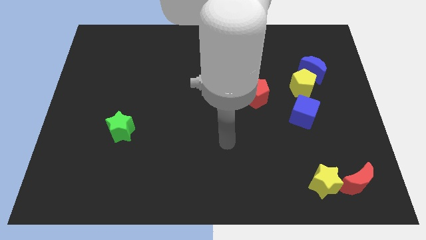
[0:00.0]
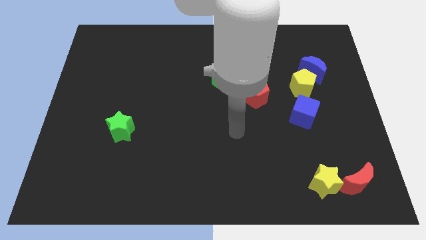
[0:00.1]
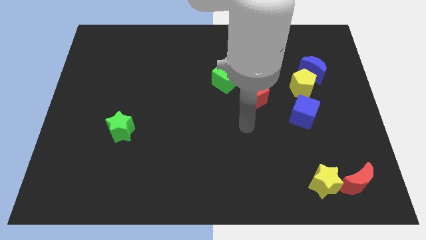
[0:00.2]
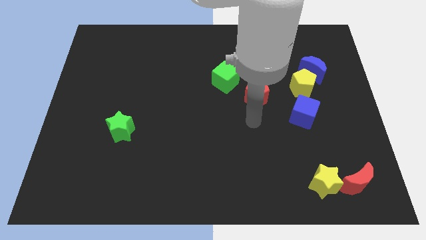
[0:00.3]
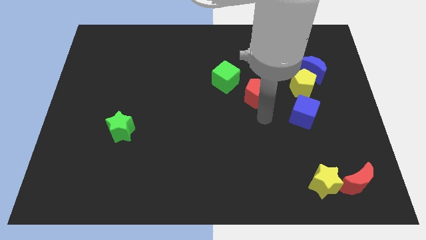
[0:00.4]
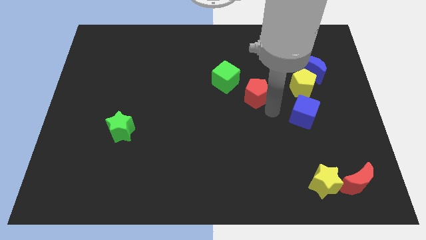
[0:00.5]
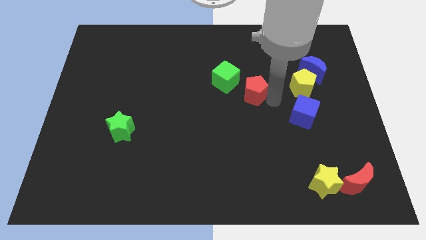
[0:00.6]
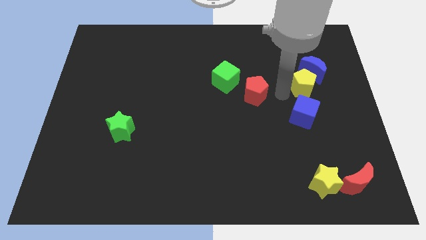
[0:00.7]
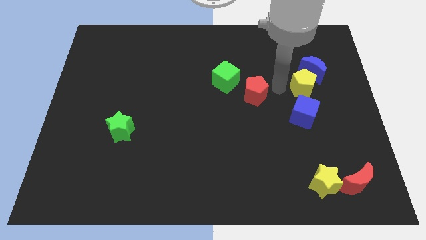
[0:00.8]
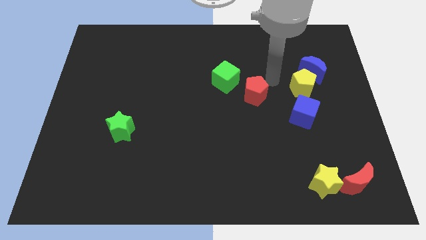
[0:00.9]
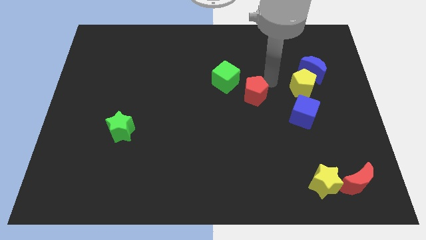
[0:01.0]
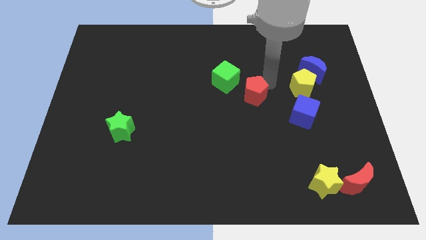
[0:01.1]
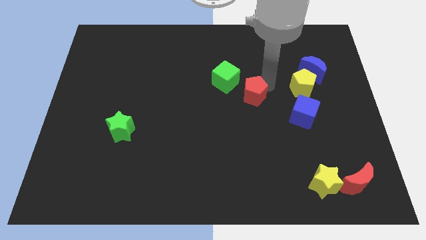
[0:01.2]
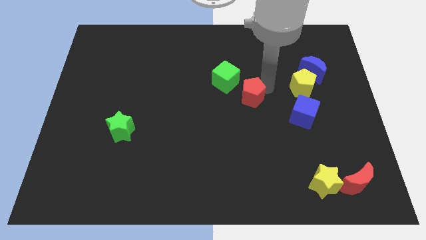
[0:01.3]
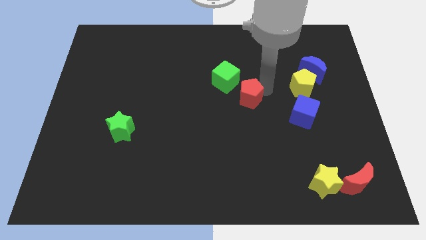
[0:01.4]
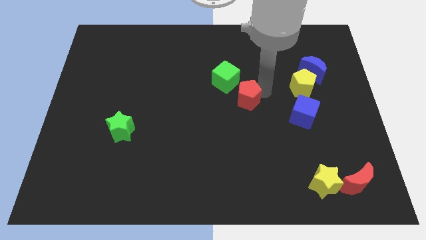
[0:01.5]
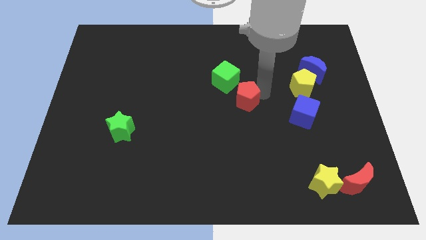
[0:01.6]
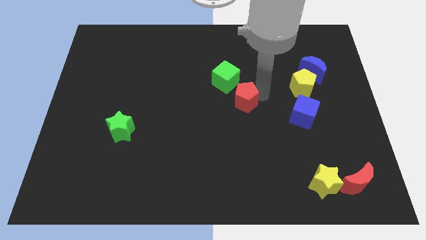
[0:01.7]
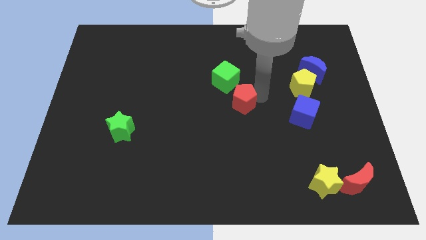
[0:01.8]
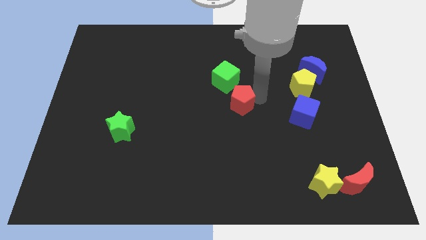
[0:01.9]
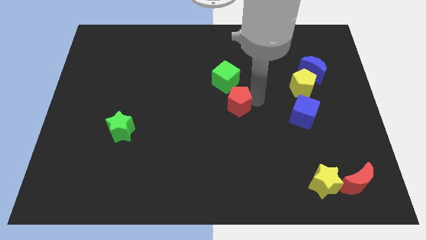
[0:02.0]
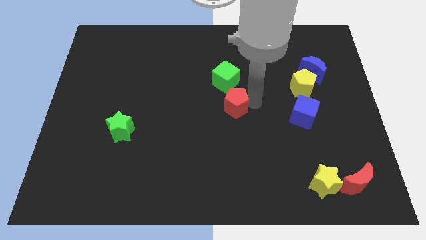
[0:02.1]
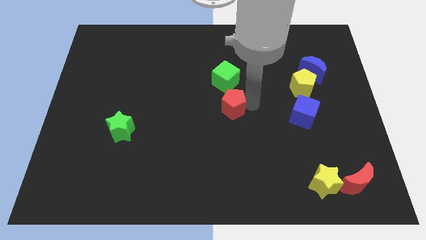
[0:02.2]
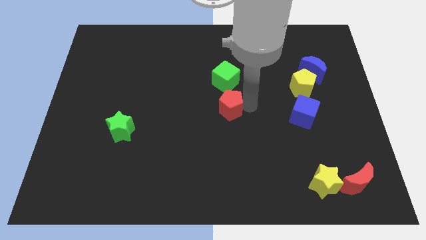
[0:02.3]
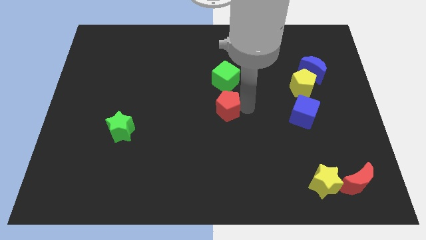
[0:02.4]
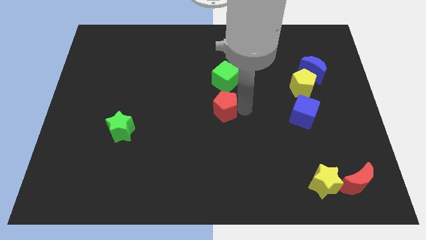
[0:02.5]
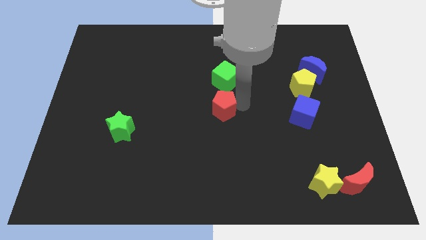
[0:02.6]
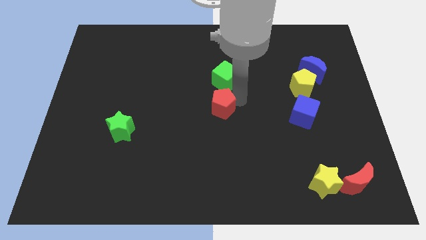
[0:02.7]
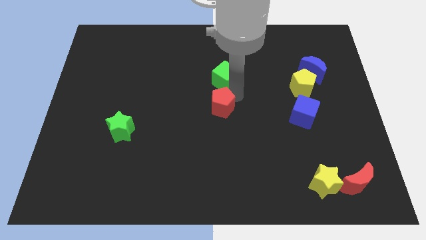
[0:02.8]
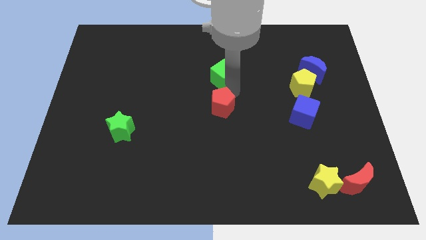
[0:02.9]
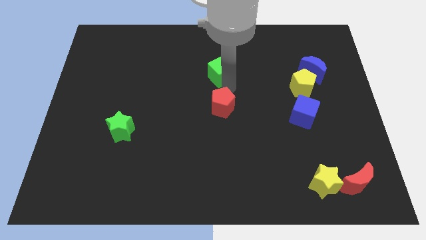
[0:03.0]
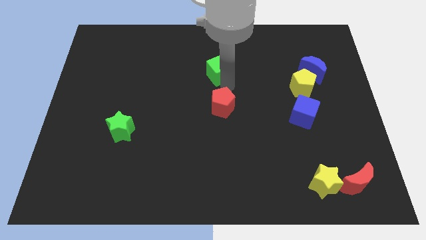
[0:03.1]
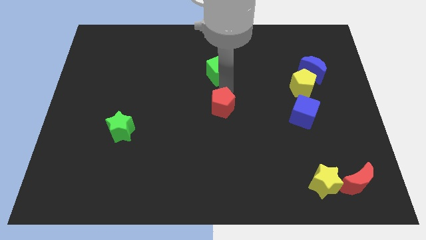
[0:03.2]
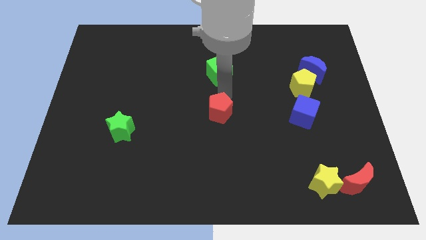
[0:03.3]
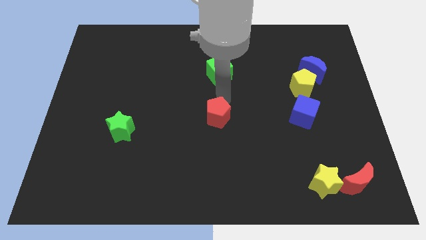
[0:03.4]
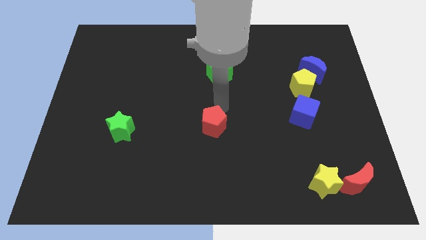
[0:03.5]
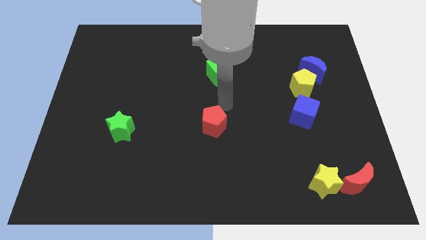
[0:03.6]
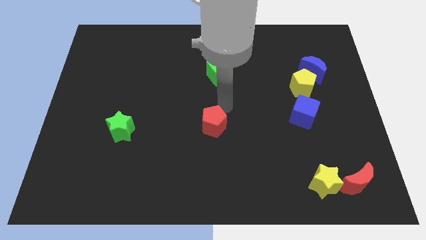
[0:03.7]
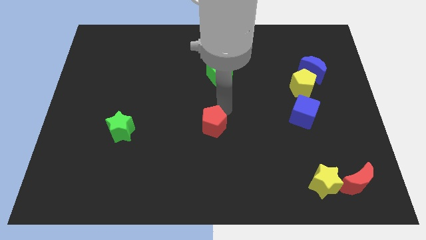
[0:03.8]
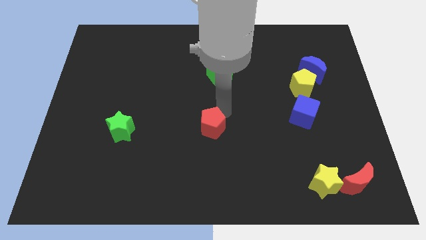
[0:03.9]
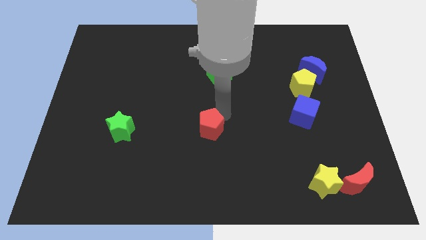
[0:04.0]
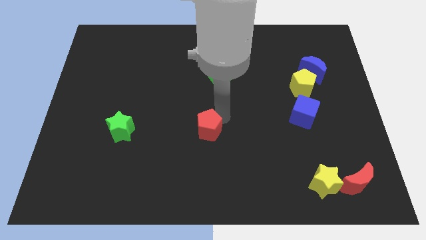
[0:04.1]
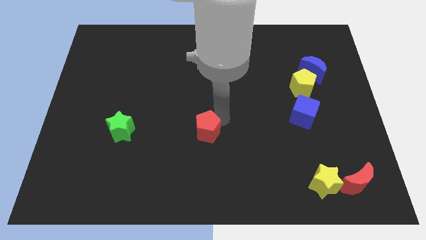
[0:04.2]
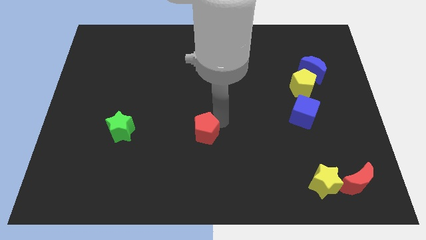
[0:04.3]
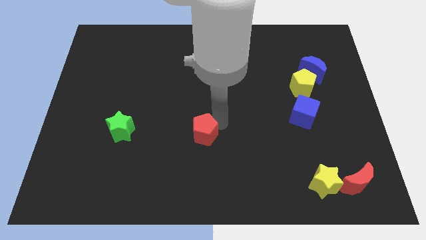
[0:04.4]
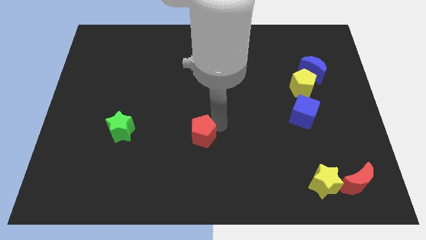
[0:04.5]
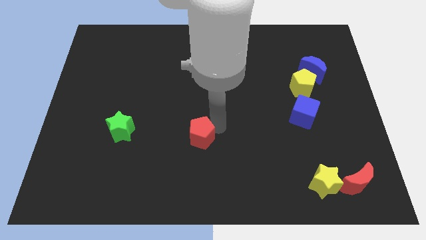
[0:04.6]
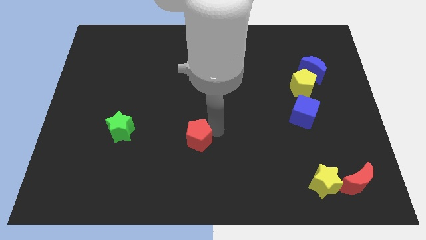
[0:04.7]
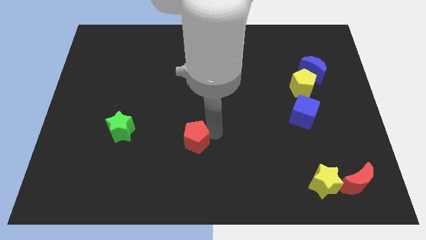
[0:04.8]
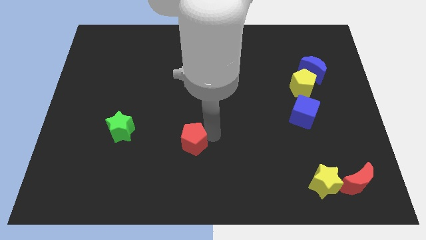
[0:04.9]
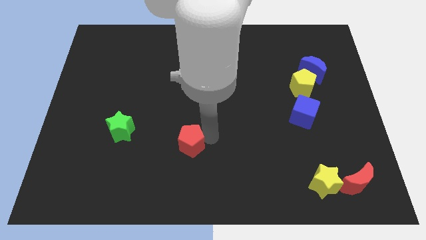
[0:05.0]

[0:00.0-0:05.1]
slide the red pentagon down and then to the left

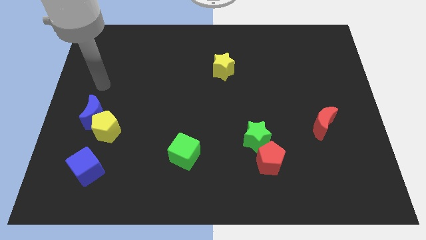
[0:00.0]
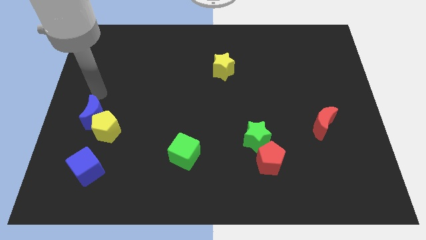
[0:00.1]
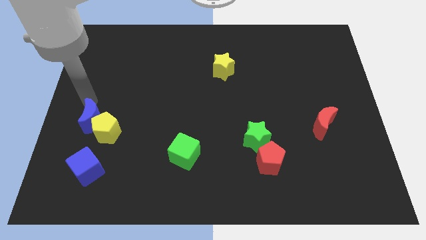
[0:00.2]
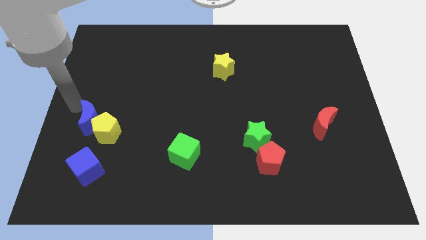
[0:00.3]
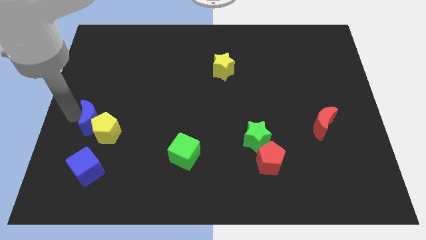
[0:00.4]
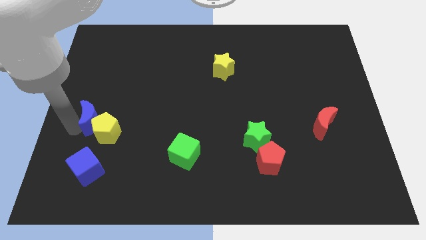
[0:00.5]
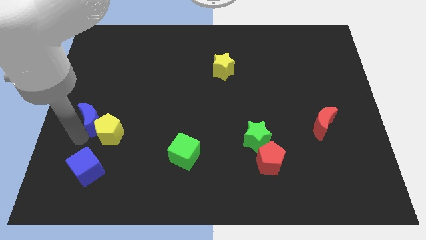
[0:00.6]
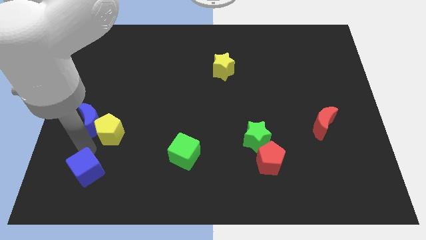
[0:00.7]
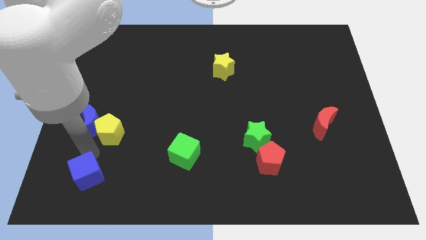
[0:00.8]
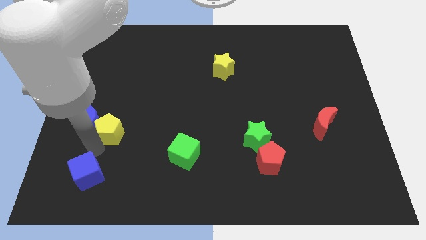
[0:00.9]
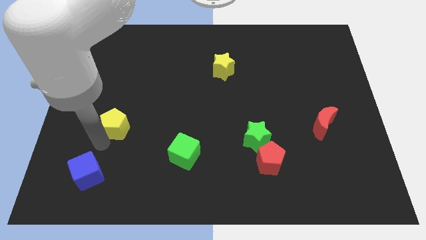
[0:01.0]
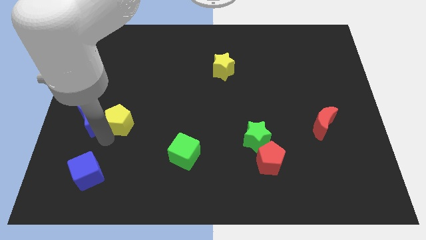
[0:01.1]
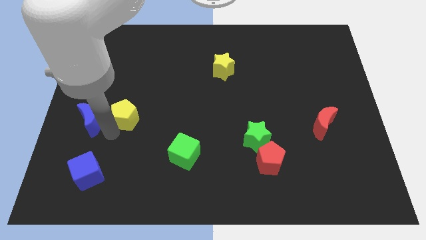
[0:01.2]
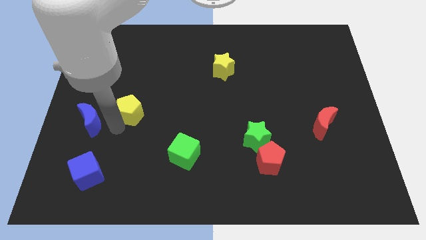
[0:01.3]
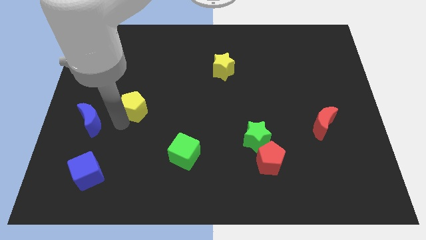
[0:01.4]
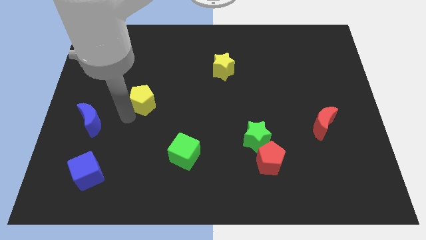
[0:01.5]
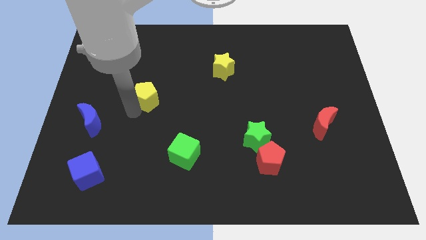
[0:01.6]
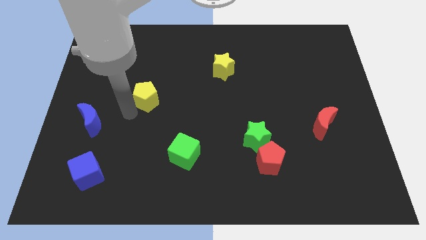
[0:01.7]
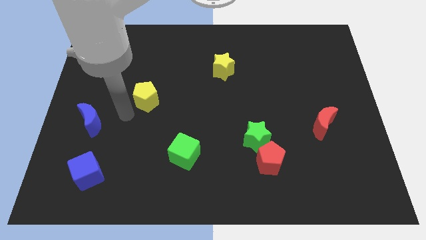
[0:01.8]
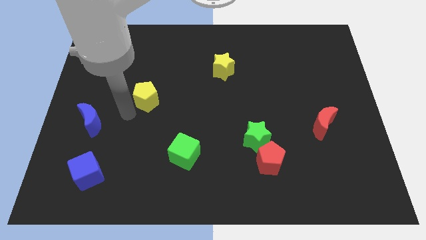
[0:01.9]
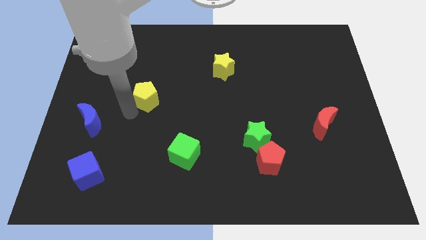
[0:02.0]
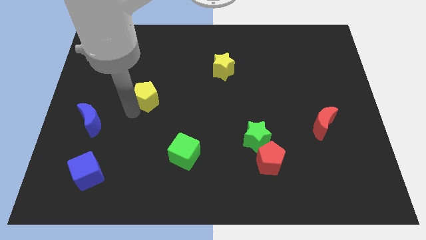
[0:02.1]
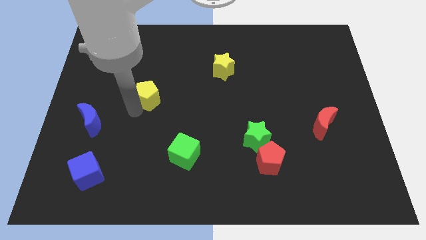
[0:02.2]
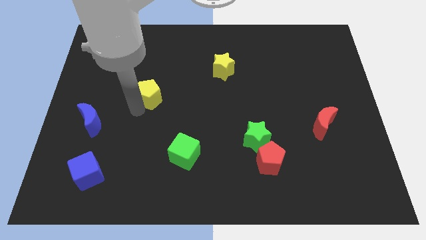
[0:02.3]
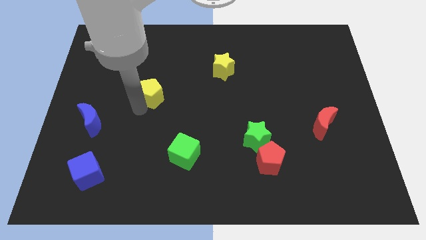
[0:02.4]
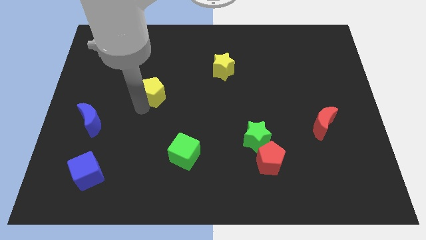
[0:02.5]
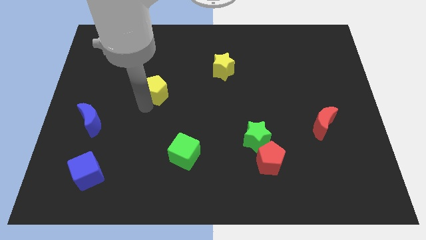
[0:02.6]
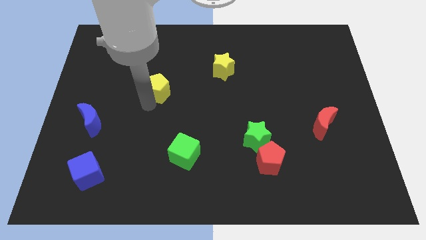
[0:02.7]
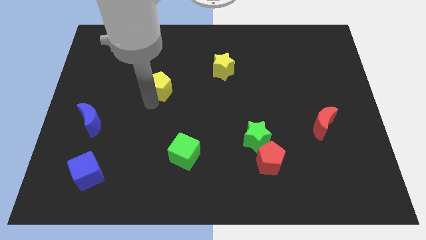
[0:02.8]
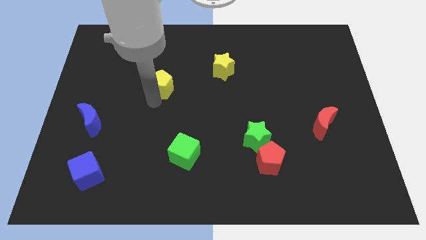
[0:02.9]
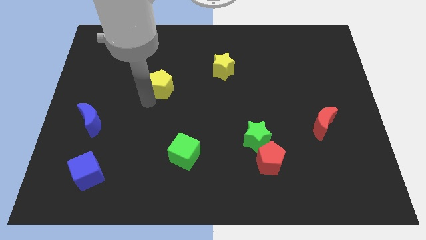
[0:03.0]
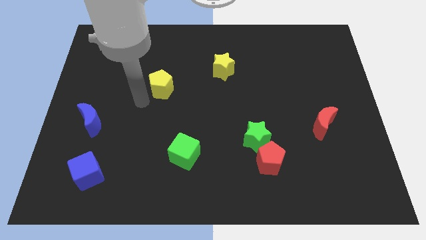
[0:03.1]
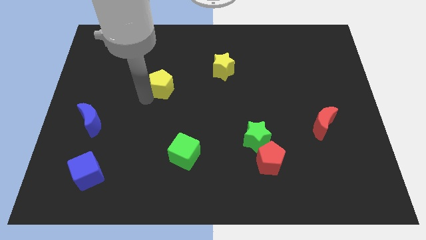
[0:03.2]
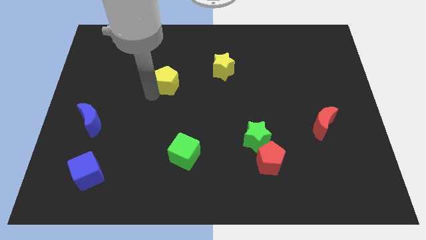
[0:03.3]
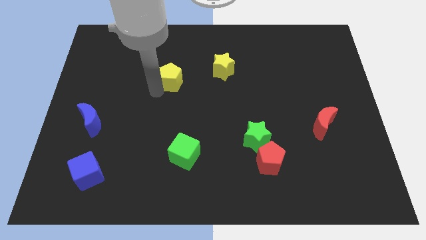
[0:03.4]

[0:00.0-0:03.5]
slide the yellow pentagon upwards and then right
